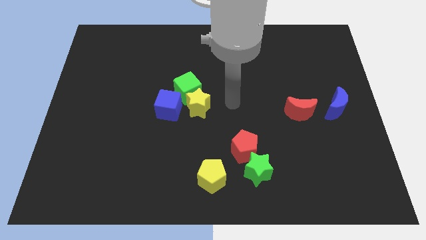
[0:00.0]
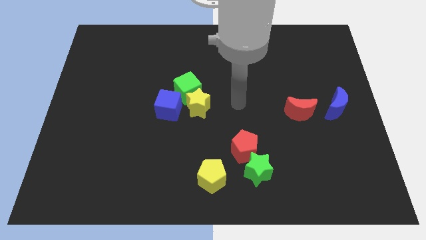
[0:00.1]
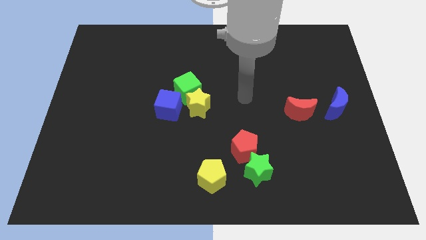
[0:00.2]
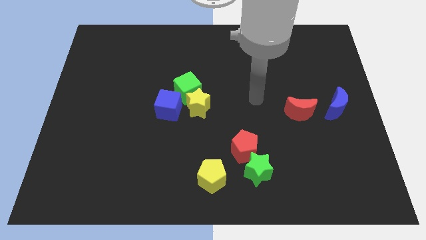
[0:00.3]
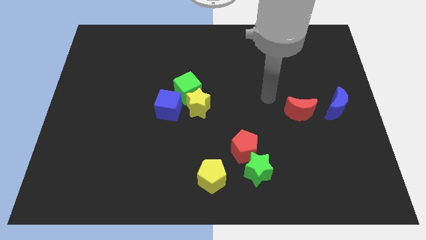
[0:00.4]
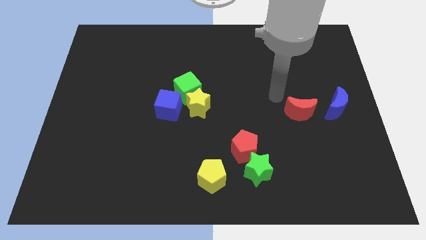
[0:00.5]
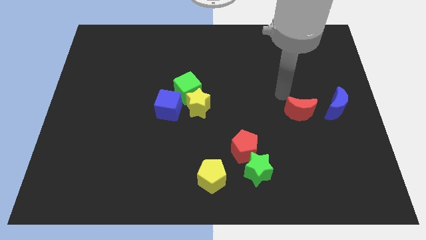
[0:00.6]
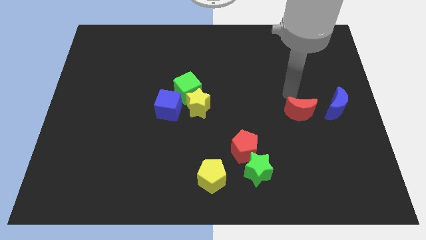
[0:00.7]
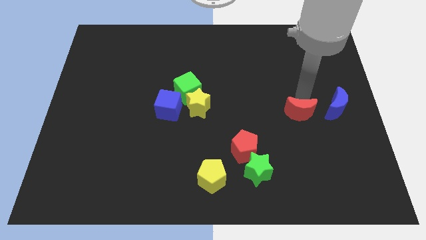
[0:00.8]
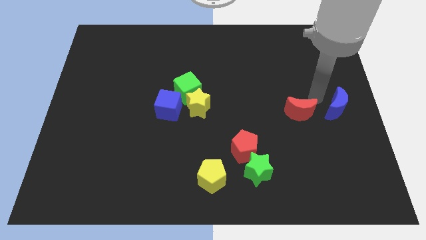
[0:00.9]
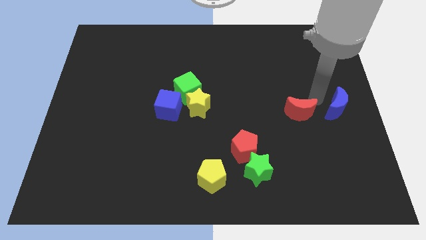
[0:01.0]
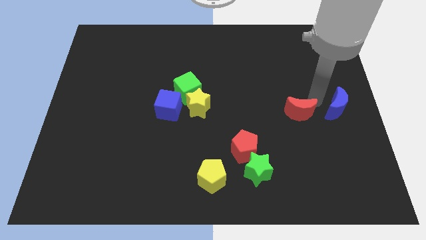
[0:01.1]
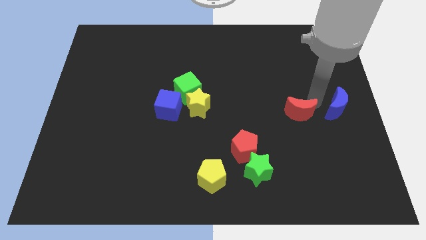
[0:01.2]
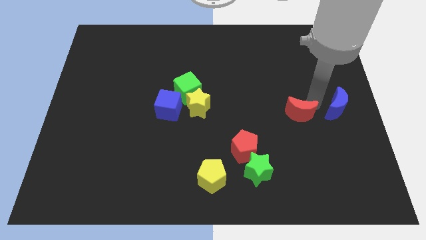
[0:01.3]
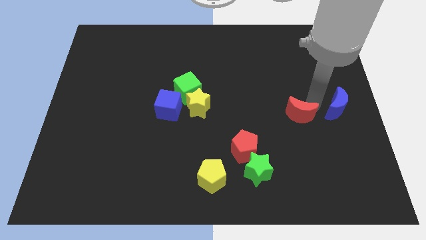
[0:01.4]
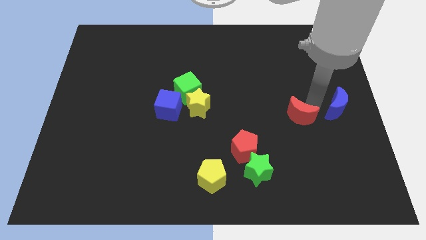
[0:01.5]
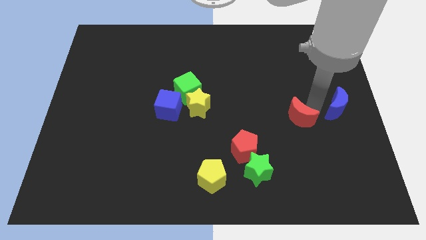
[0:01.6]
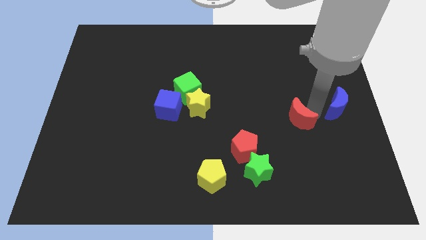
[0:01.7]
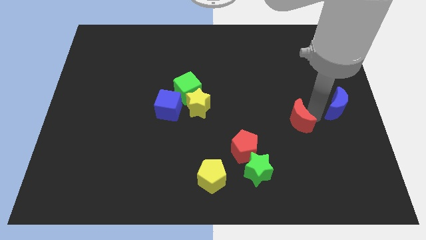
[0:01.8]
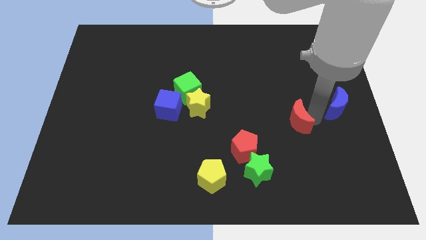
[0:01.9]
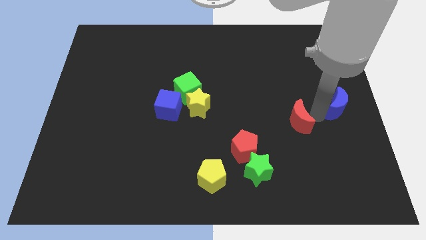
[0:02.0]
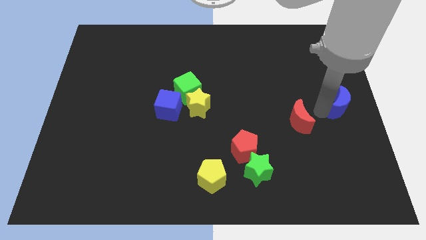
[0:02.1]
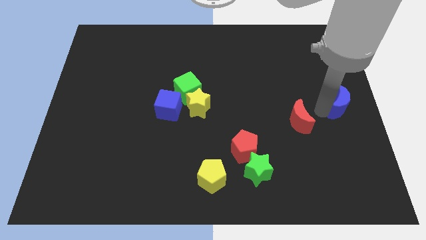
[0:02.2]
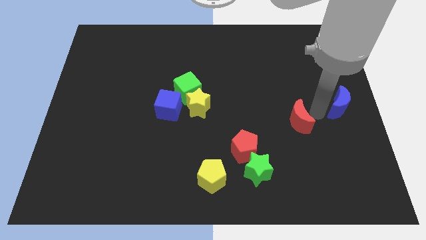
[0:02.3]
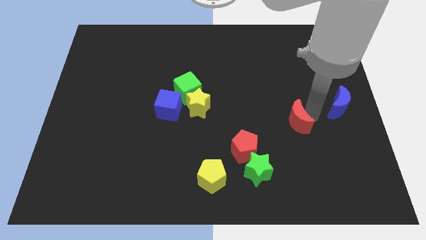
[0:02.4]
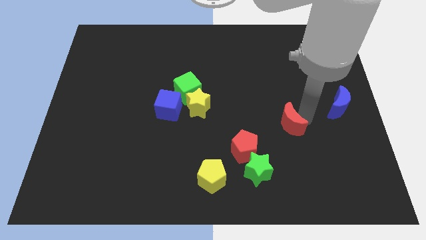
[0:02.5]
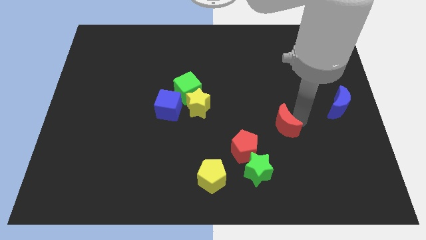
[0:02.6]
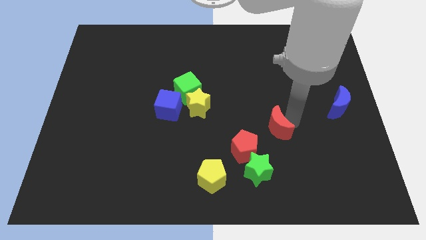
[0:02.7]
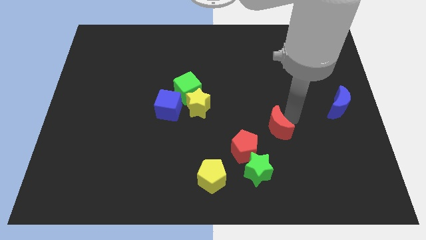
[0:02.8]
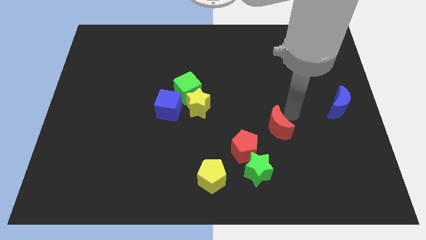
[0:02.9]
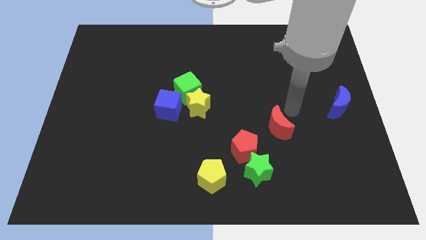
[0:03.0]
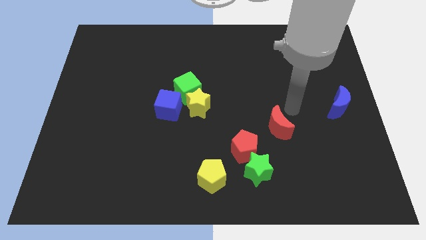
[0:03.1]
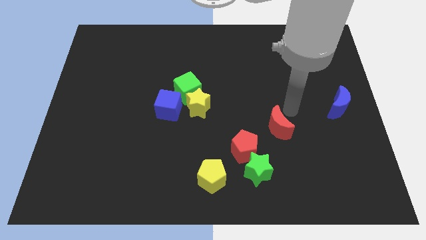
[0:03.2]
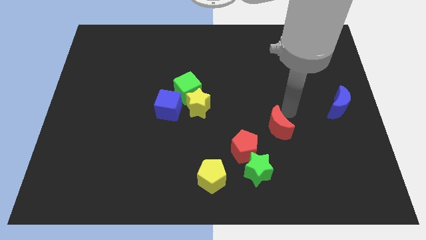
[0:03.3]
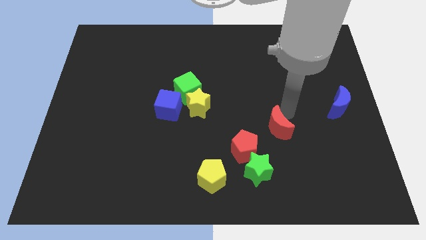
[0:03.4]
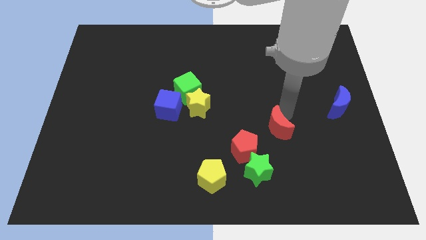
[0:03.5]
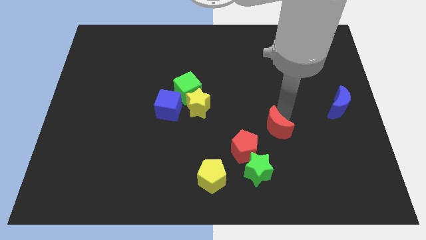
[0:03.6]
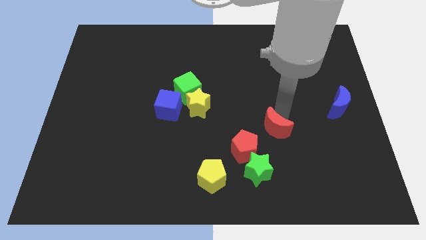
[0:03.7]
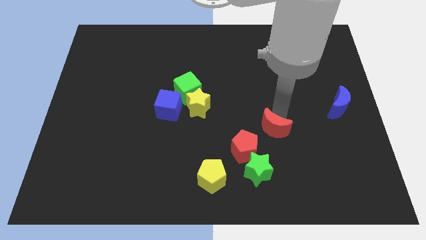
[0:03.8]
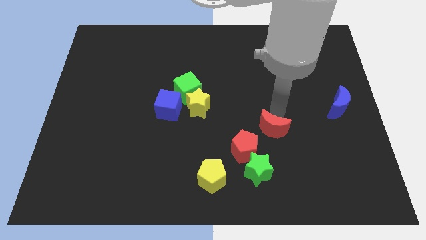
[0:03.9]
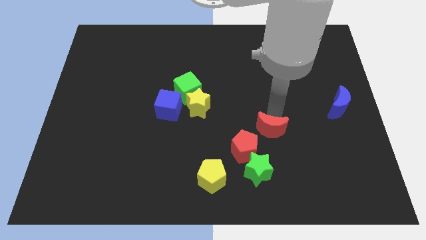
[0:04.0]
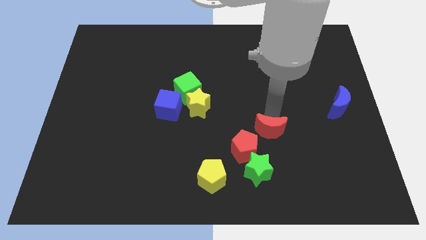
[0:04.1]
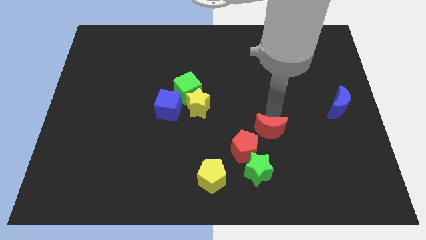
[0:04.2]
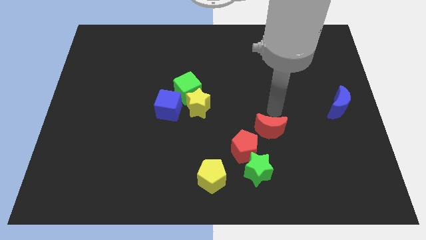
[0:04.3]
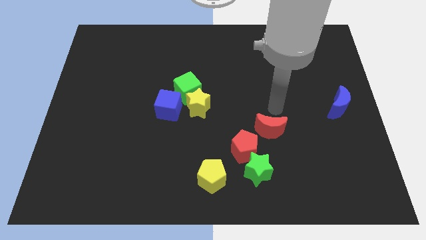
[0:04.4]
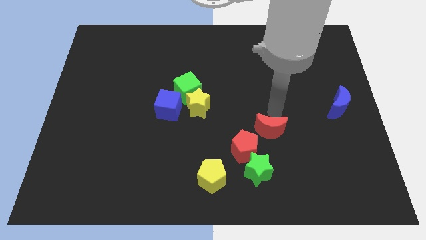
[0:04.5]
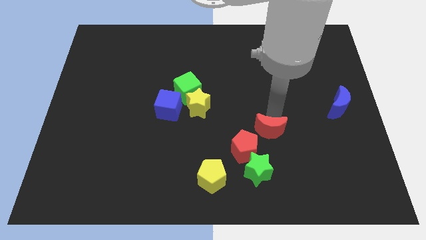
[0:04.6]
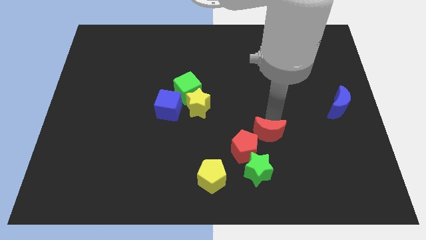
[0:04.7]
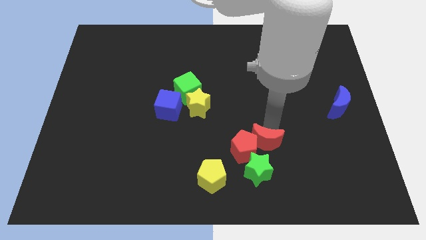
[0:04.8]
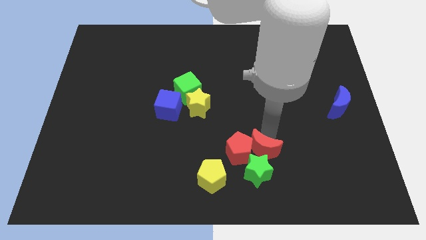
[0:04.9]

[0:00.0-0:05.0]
slide the red moon towards the green star

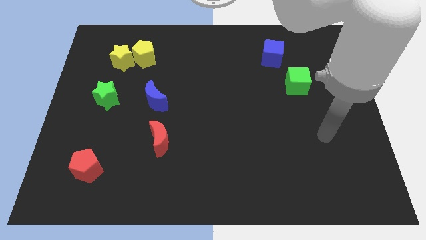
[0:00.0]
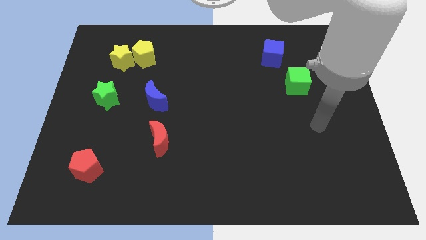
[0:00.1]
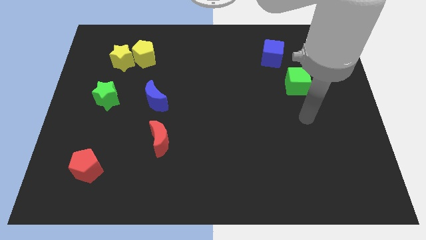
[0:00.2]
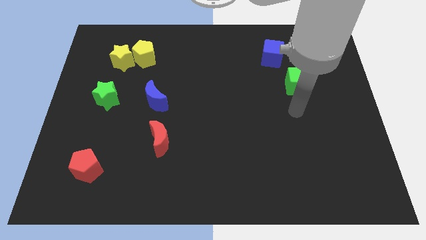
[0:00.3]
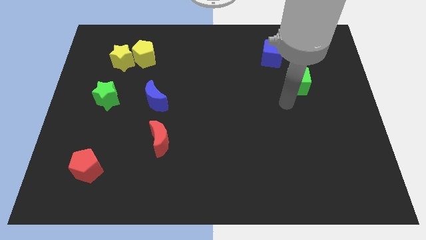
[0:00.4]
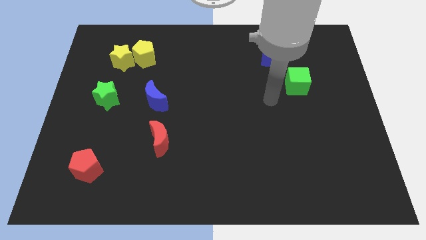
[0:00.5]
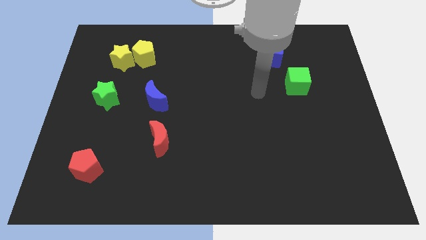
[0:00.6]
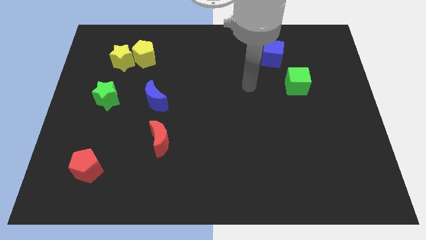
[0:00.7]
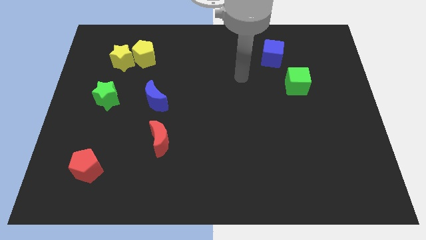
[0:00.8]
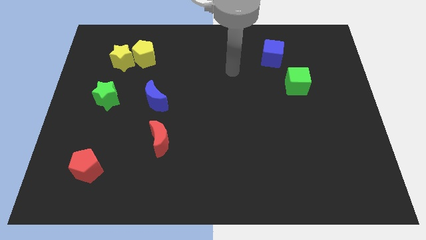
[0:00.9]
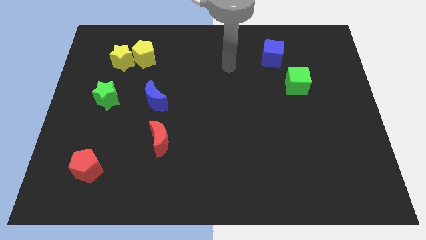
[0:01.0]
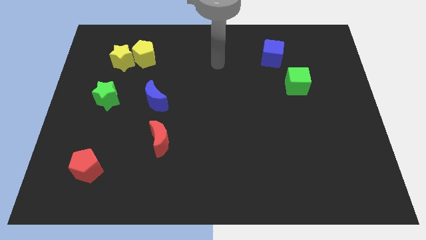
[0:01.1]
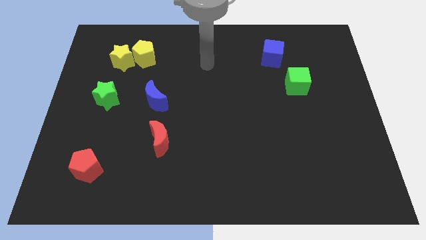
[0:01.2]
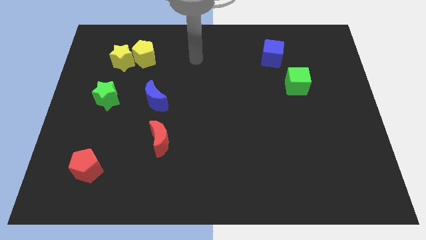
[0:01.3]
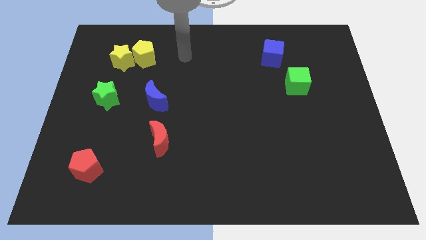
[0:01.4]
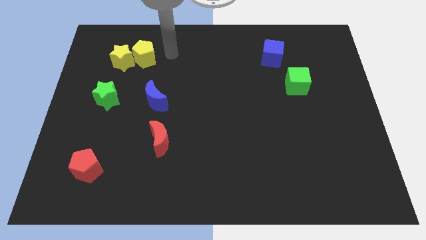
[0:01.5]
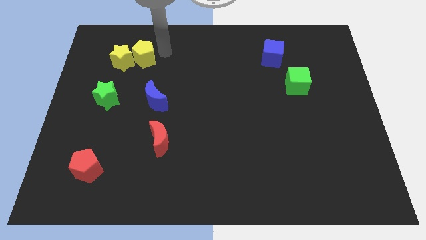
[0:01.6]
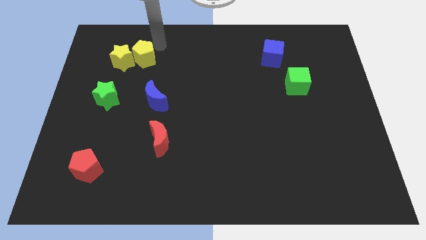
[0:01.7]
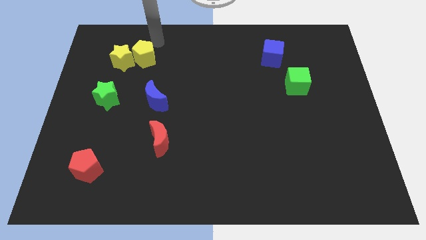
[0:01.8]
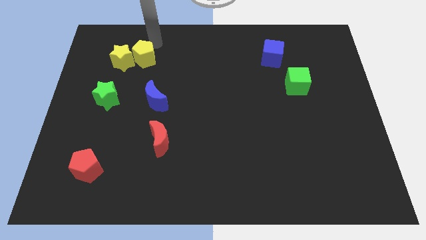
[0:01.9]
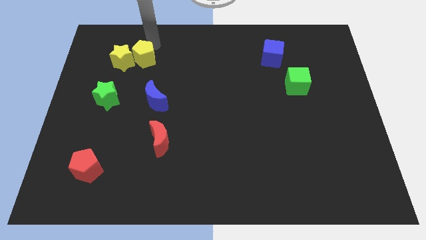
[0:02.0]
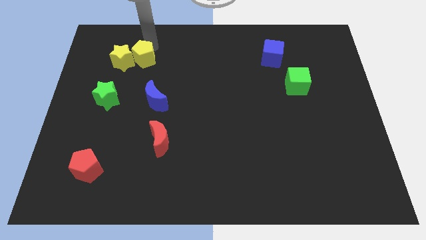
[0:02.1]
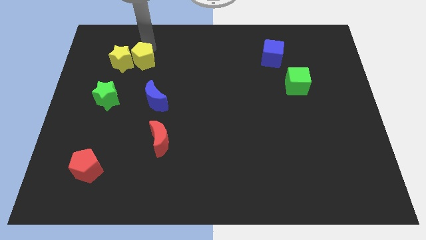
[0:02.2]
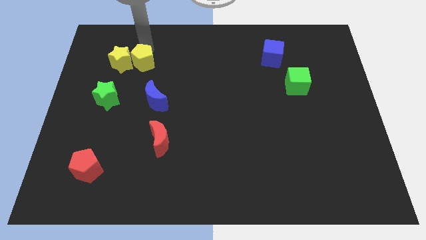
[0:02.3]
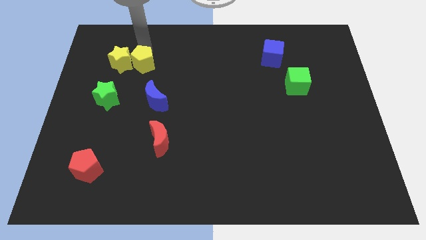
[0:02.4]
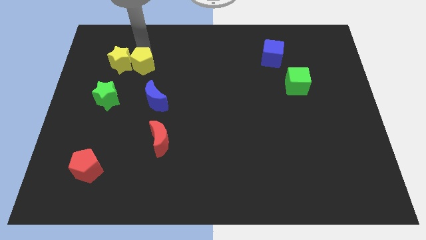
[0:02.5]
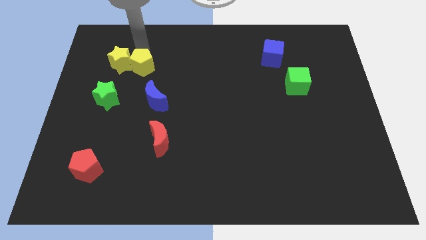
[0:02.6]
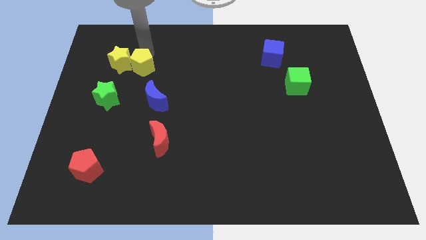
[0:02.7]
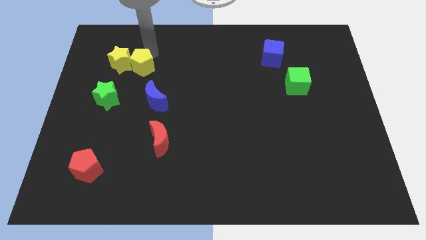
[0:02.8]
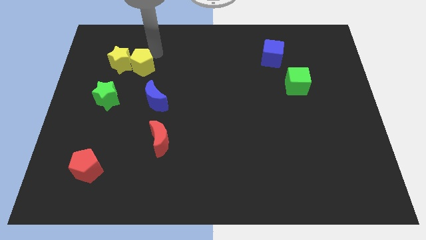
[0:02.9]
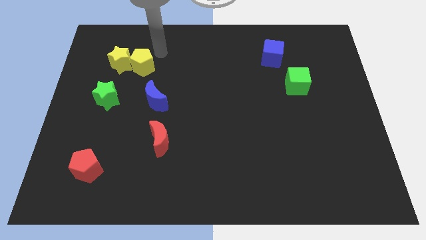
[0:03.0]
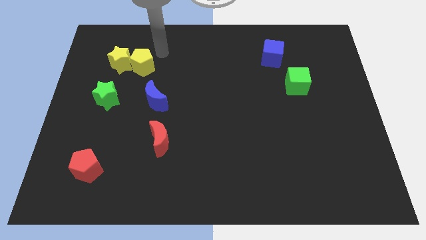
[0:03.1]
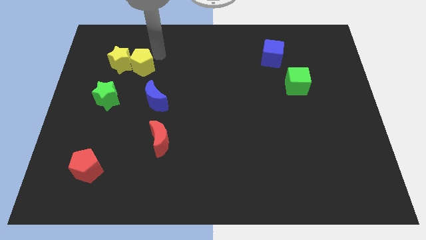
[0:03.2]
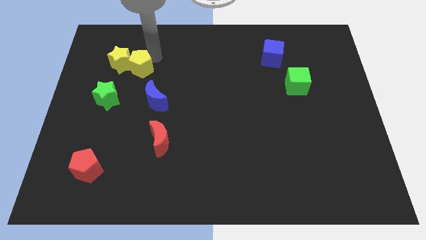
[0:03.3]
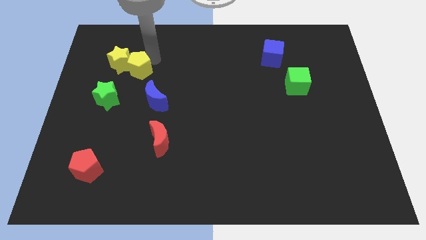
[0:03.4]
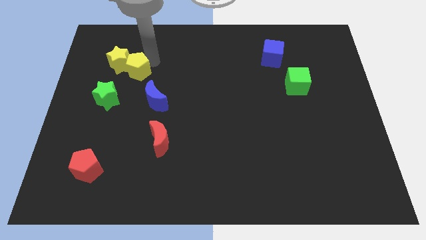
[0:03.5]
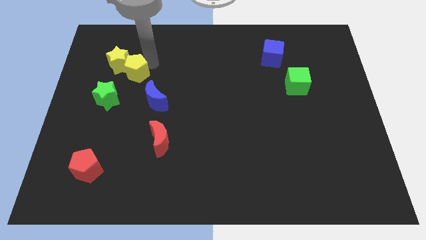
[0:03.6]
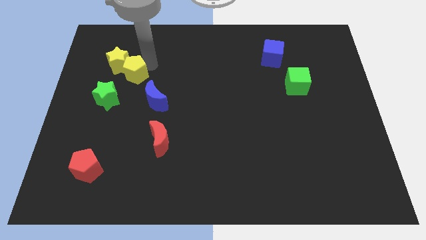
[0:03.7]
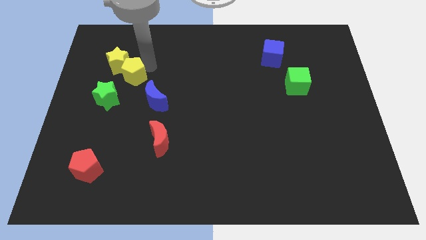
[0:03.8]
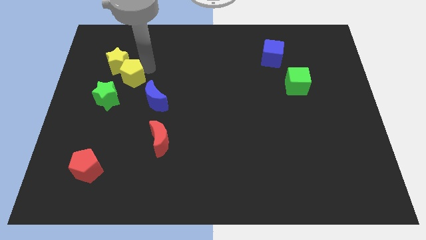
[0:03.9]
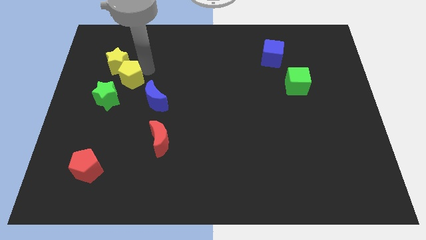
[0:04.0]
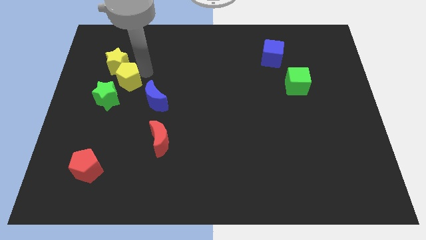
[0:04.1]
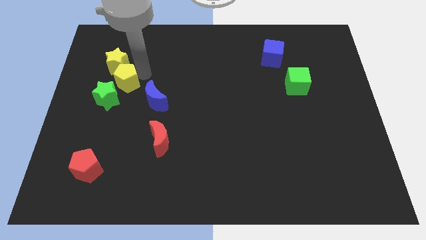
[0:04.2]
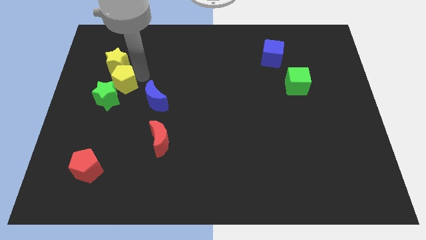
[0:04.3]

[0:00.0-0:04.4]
push the yellow pentagon towards the green star
